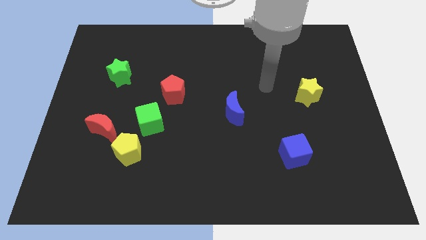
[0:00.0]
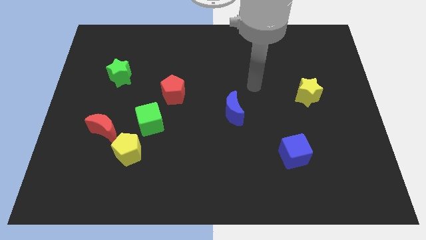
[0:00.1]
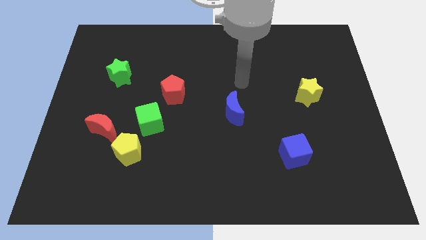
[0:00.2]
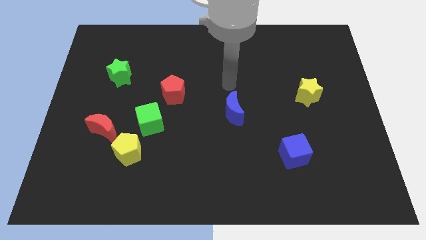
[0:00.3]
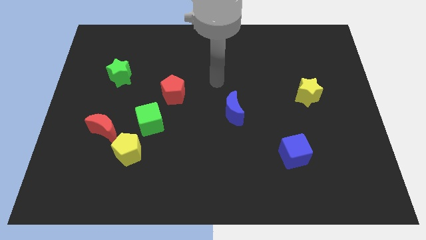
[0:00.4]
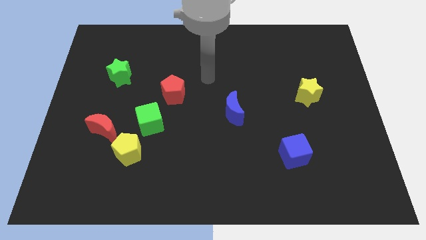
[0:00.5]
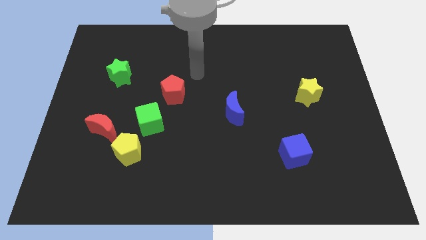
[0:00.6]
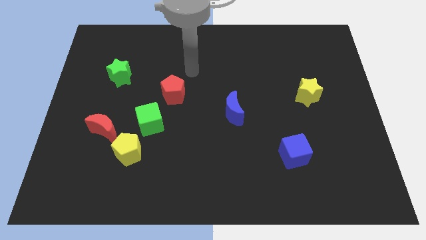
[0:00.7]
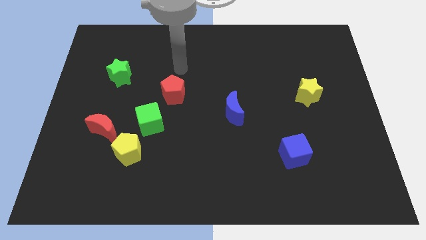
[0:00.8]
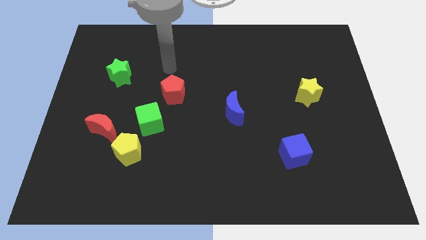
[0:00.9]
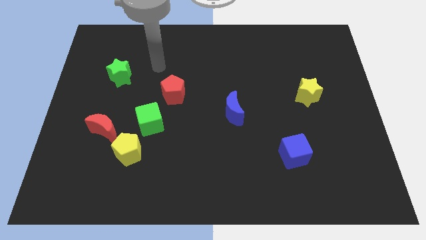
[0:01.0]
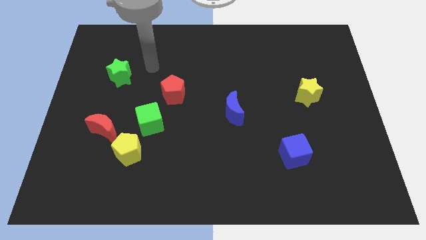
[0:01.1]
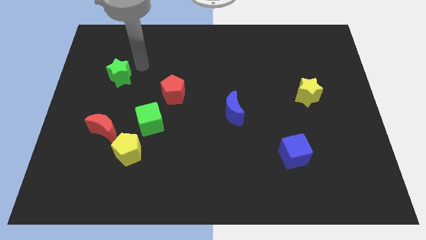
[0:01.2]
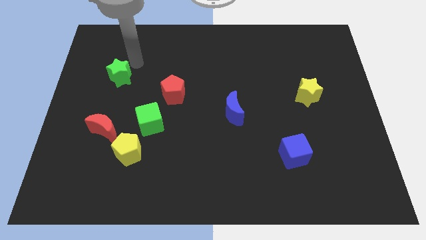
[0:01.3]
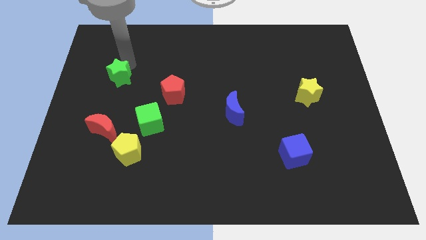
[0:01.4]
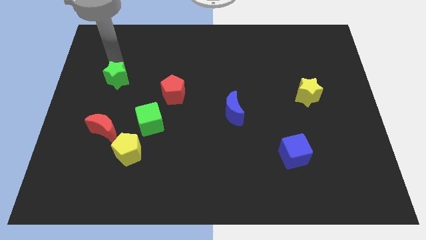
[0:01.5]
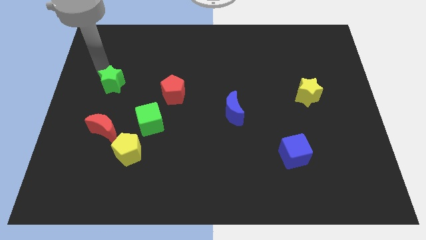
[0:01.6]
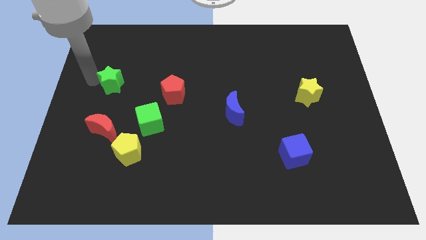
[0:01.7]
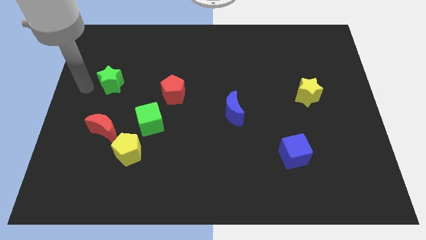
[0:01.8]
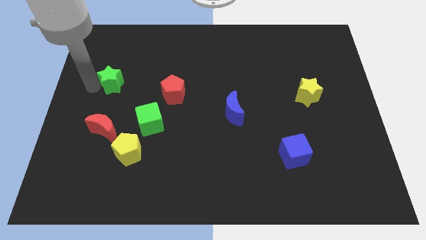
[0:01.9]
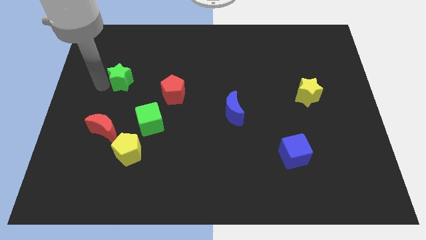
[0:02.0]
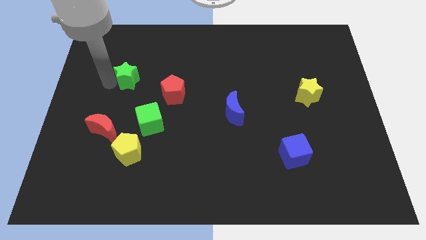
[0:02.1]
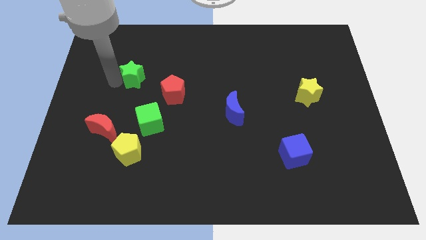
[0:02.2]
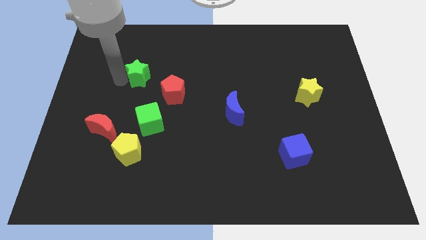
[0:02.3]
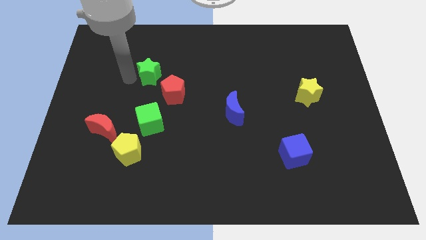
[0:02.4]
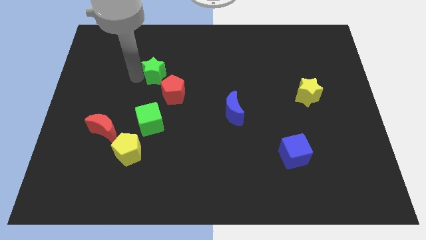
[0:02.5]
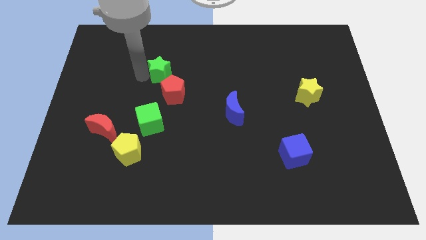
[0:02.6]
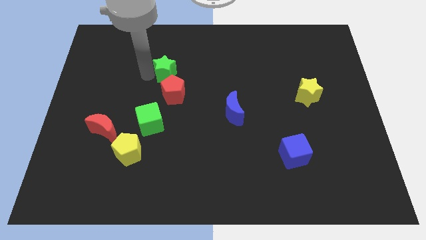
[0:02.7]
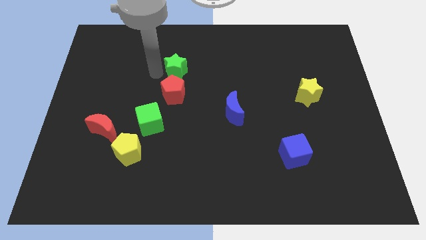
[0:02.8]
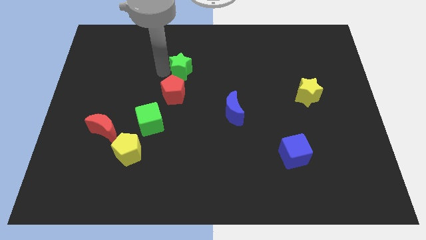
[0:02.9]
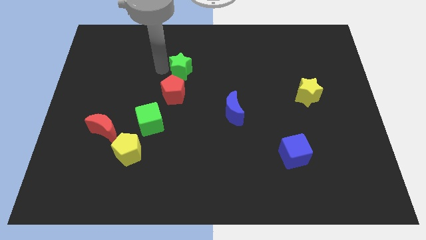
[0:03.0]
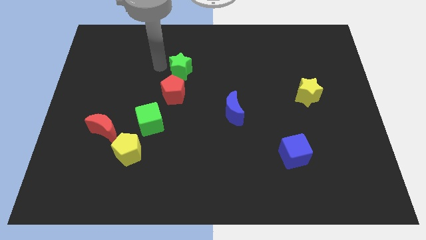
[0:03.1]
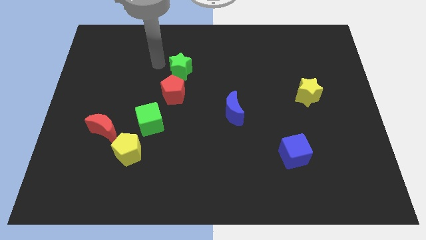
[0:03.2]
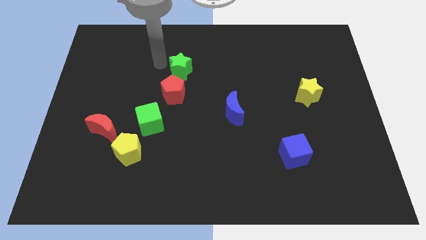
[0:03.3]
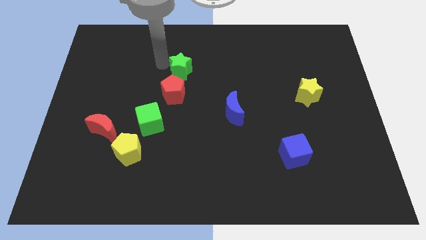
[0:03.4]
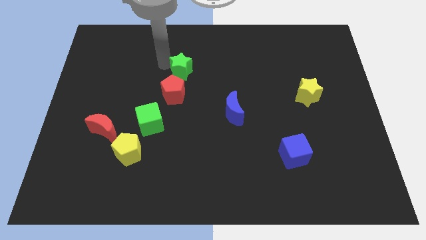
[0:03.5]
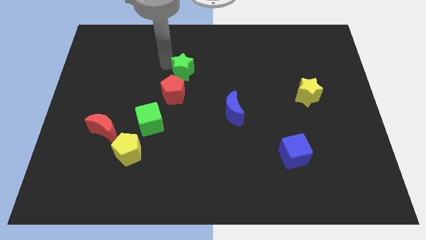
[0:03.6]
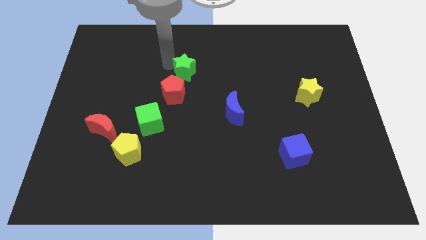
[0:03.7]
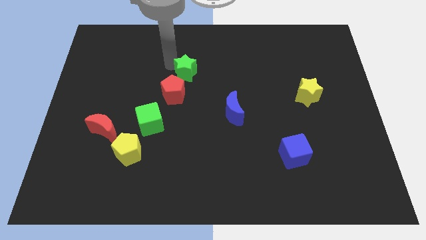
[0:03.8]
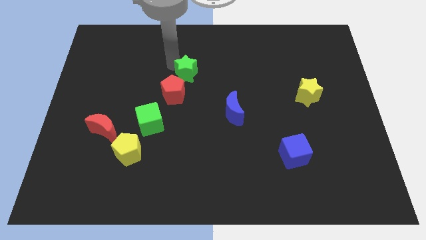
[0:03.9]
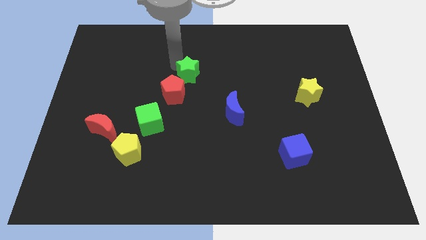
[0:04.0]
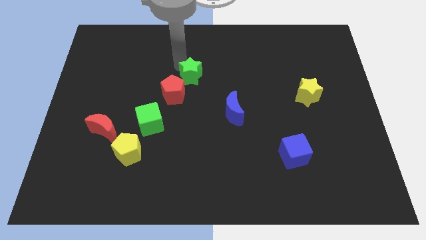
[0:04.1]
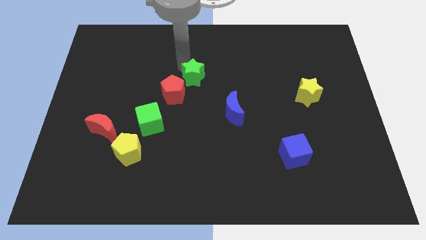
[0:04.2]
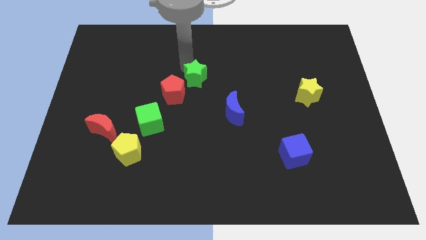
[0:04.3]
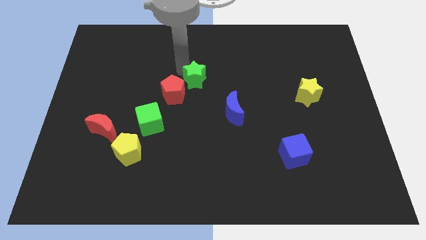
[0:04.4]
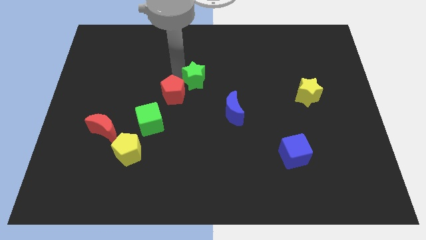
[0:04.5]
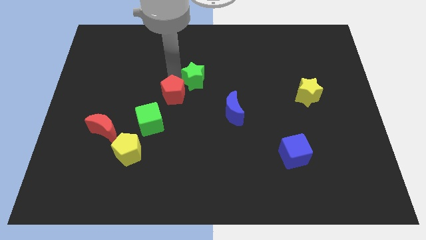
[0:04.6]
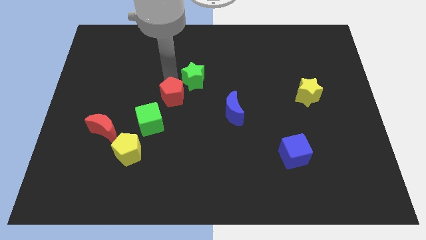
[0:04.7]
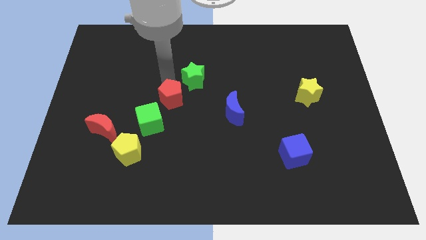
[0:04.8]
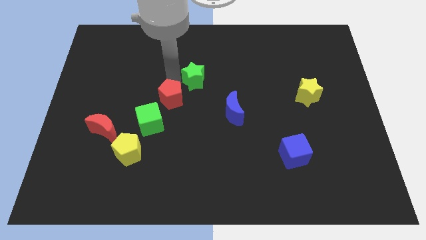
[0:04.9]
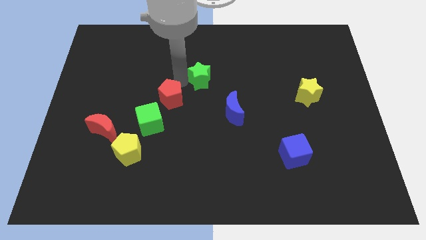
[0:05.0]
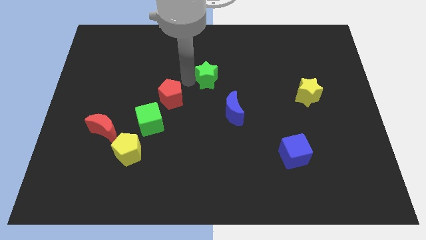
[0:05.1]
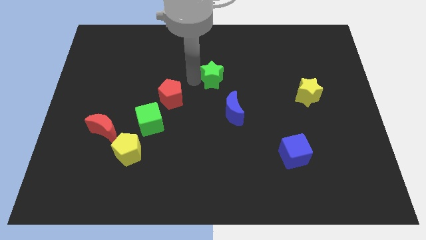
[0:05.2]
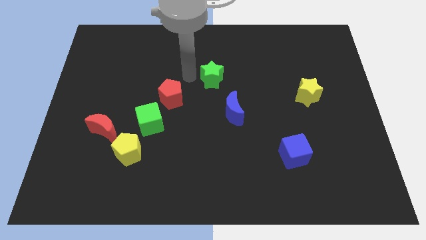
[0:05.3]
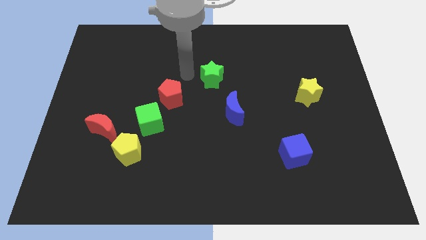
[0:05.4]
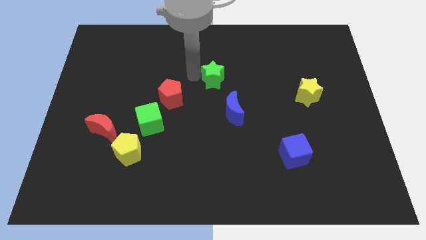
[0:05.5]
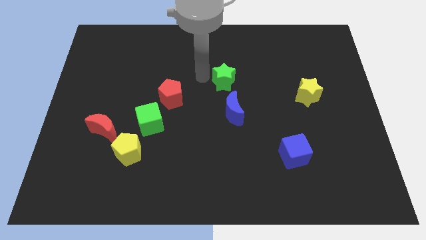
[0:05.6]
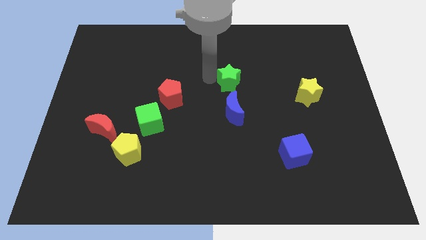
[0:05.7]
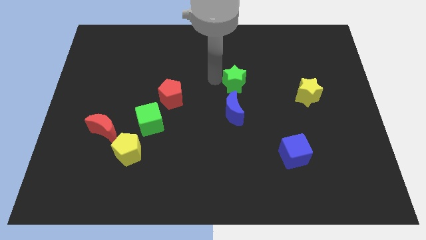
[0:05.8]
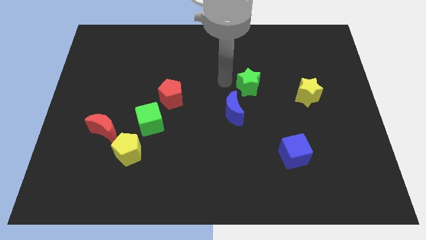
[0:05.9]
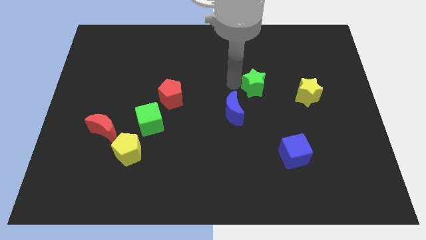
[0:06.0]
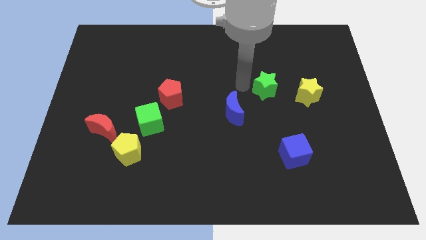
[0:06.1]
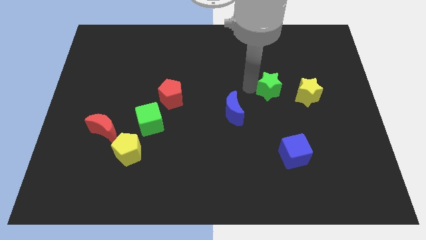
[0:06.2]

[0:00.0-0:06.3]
slide the green star to the top left side of the yellow star

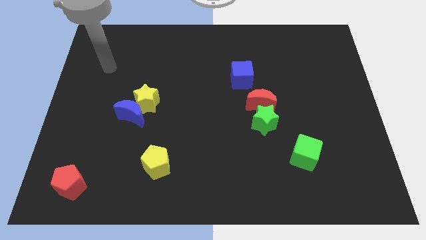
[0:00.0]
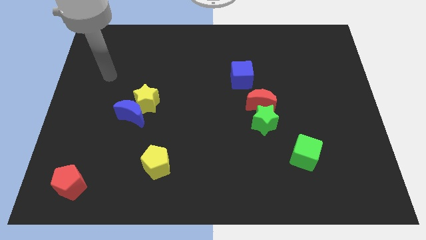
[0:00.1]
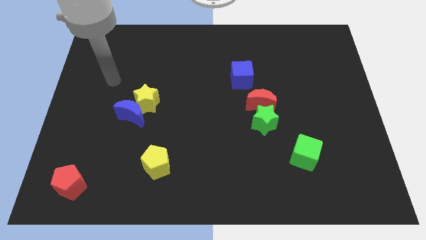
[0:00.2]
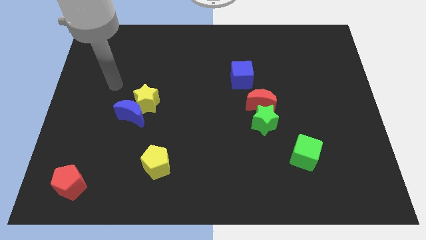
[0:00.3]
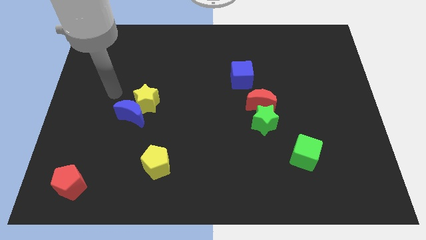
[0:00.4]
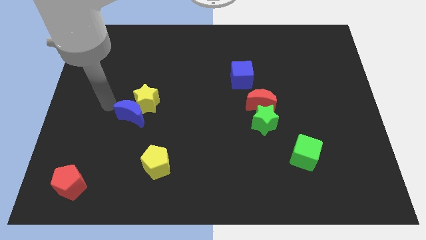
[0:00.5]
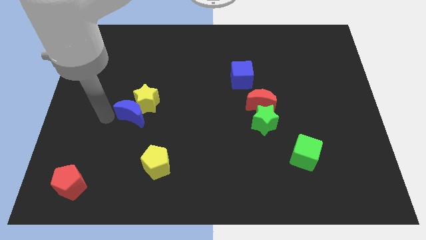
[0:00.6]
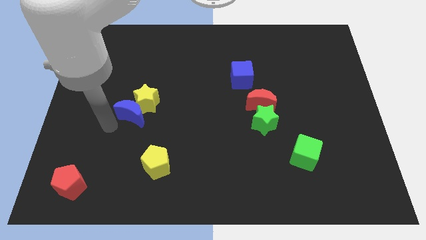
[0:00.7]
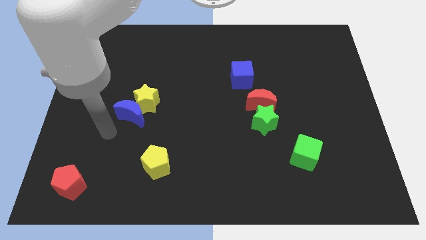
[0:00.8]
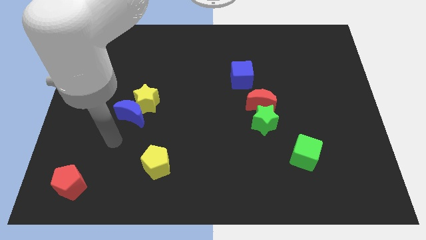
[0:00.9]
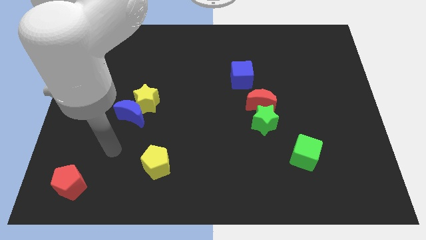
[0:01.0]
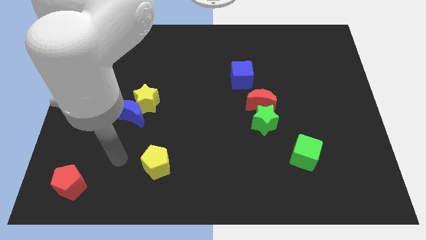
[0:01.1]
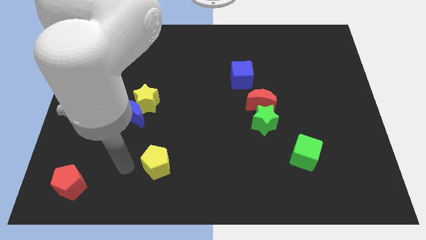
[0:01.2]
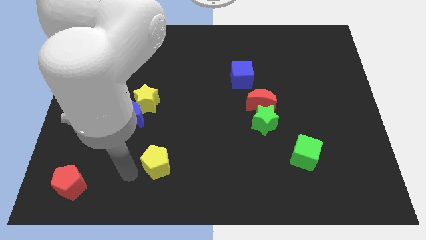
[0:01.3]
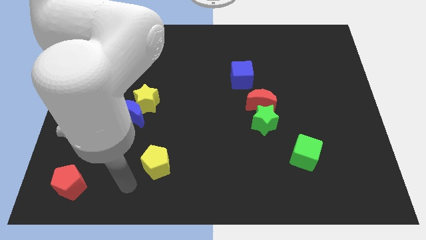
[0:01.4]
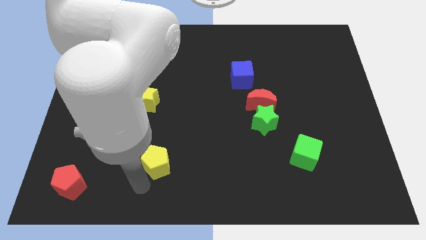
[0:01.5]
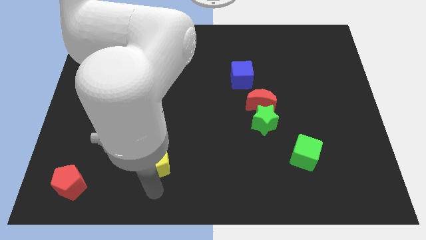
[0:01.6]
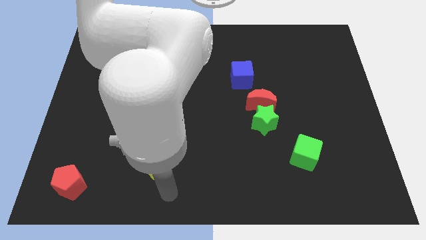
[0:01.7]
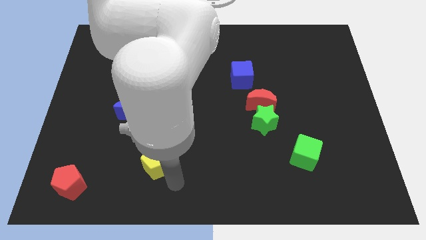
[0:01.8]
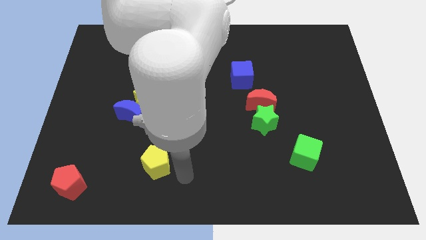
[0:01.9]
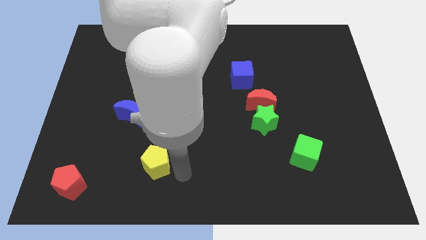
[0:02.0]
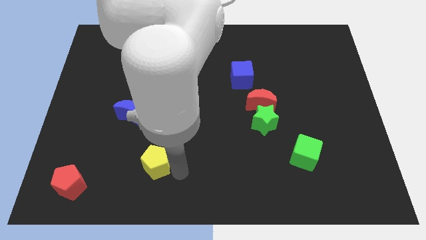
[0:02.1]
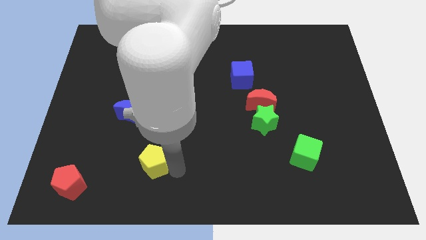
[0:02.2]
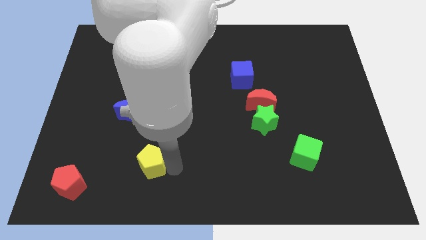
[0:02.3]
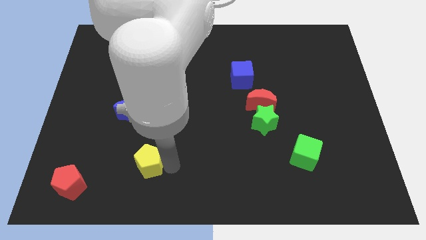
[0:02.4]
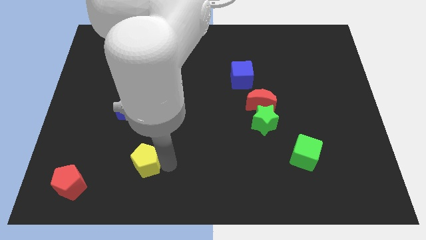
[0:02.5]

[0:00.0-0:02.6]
put the yellow pentagon below the blue moon
